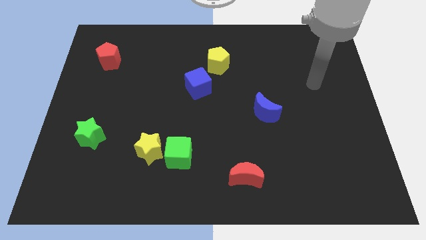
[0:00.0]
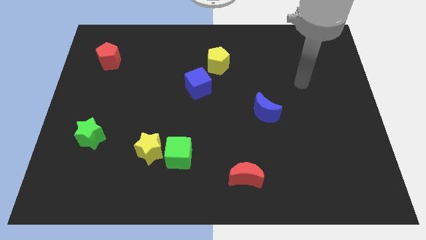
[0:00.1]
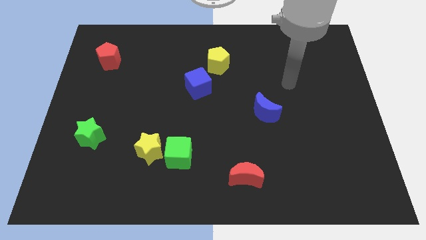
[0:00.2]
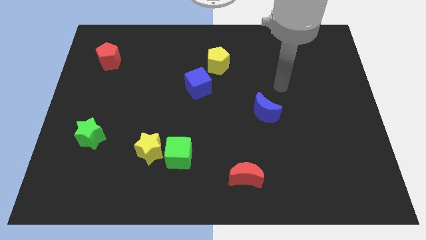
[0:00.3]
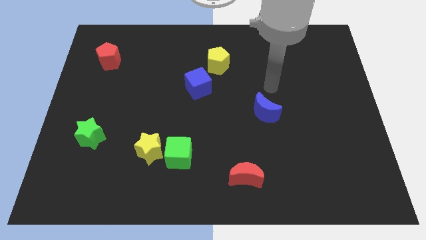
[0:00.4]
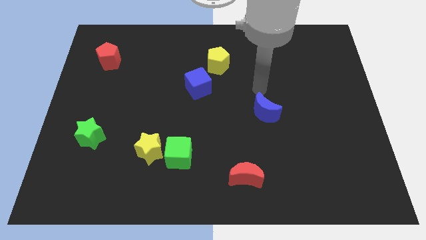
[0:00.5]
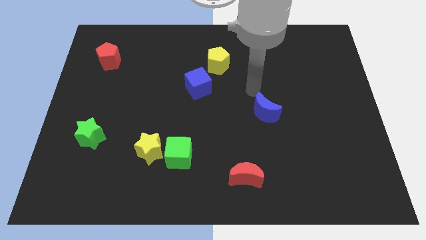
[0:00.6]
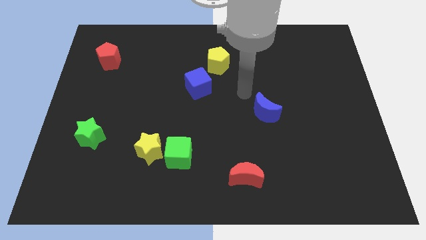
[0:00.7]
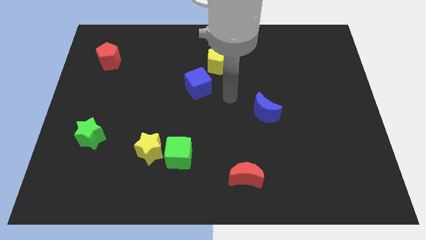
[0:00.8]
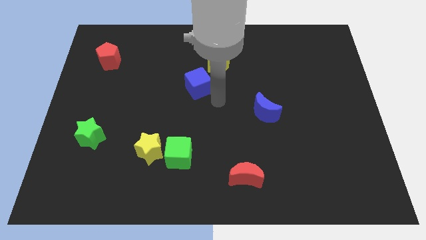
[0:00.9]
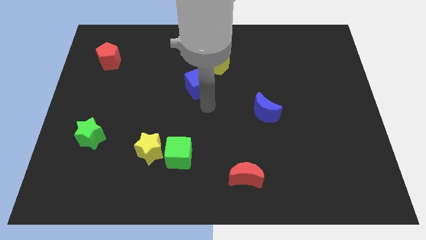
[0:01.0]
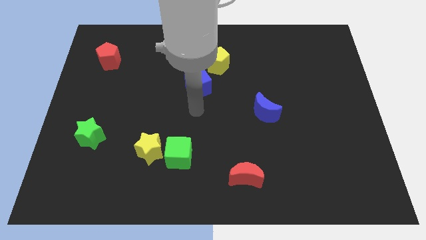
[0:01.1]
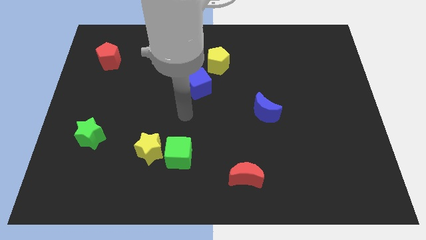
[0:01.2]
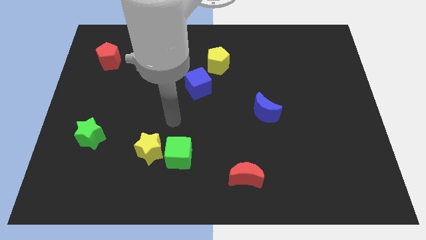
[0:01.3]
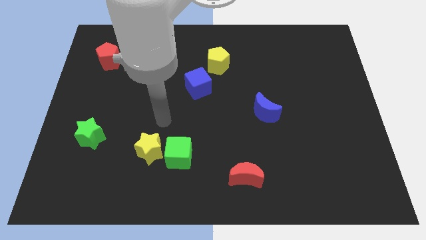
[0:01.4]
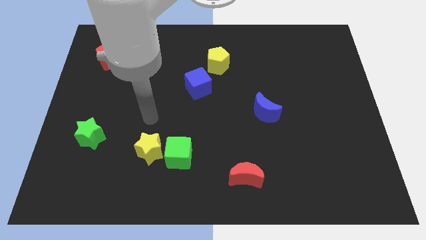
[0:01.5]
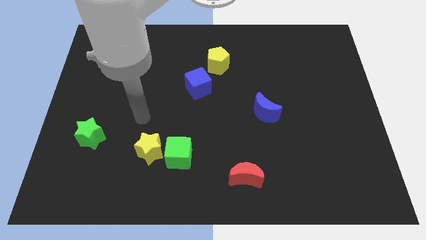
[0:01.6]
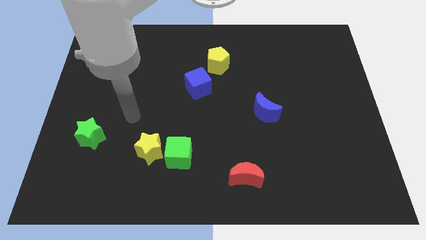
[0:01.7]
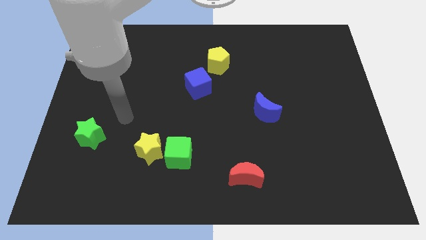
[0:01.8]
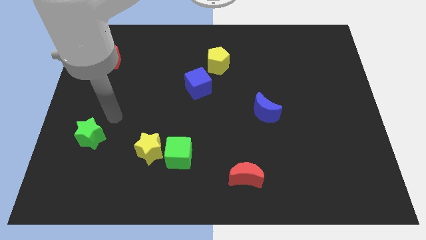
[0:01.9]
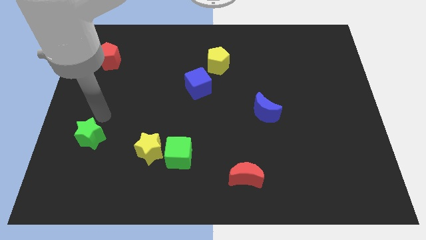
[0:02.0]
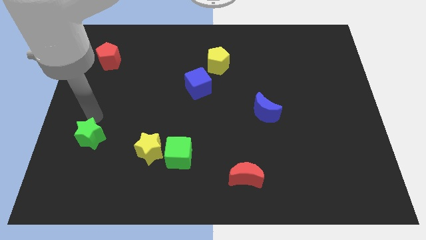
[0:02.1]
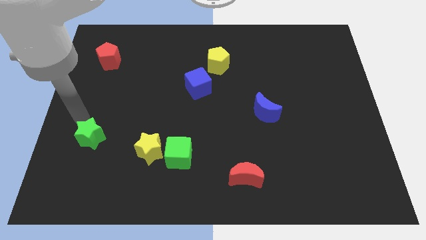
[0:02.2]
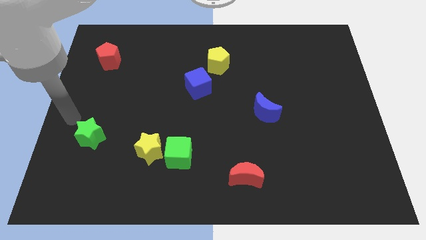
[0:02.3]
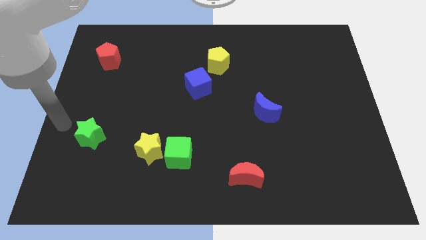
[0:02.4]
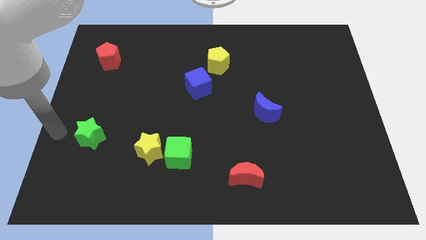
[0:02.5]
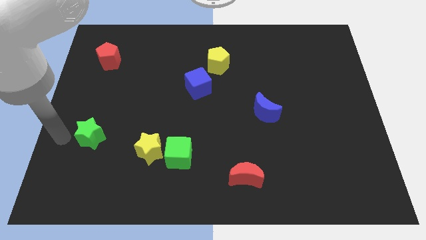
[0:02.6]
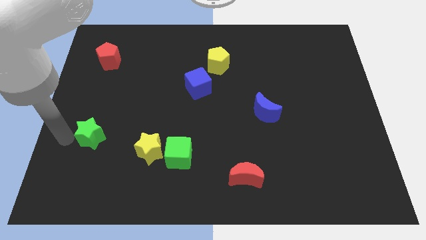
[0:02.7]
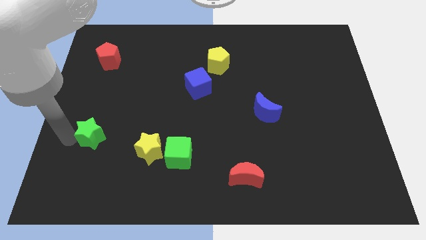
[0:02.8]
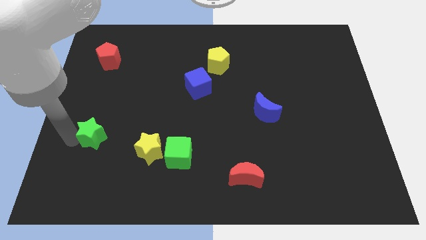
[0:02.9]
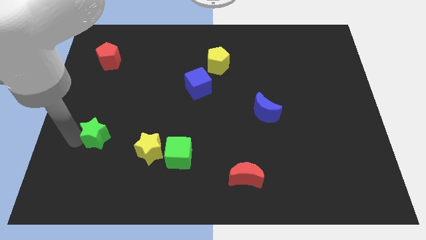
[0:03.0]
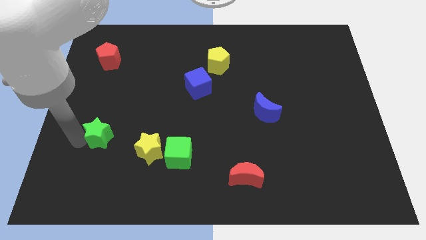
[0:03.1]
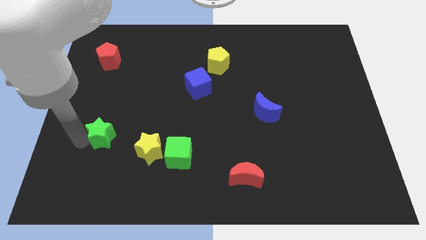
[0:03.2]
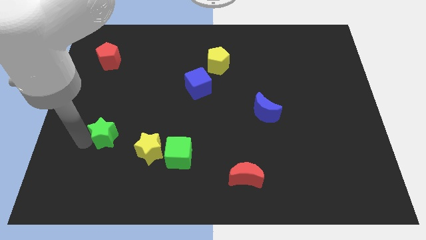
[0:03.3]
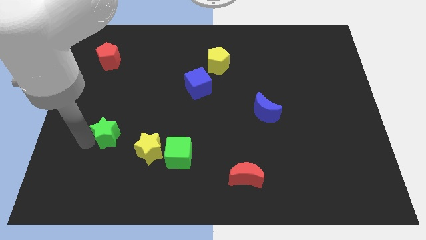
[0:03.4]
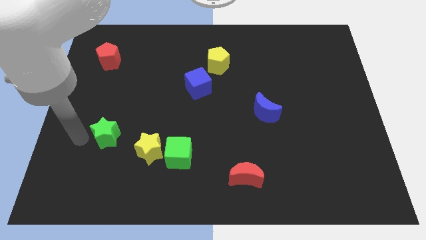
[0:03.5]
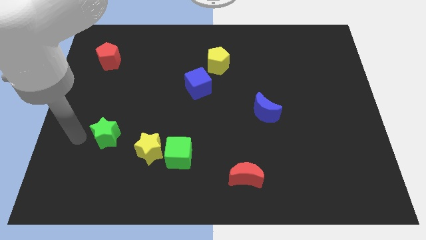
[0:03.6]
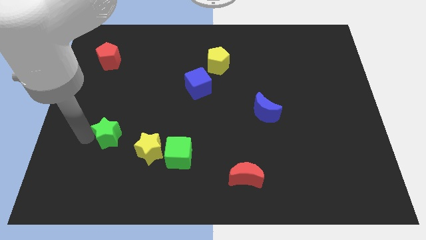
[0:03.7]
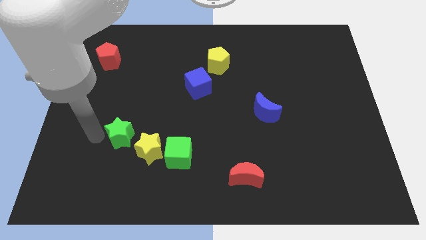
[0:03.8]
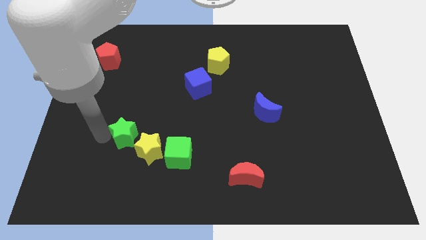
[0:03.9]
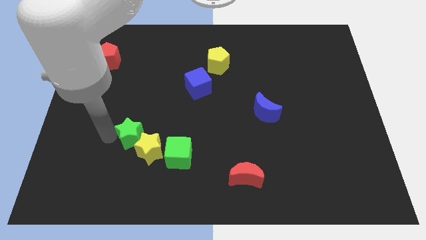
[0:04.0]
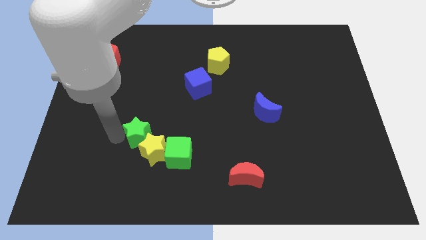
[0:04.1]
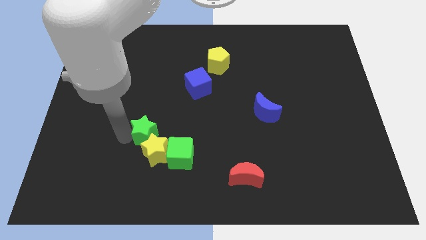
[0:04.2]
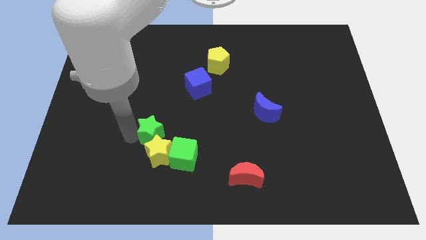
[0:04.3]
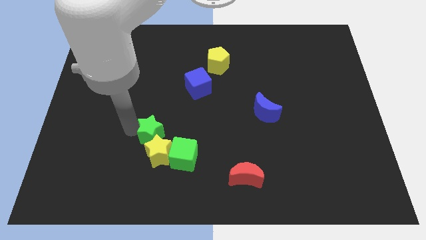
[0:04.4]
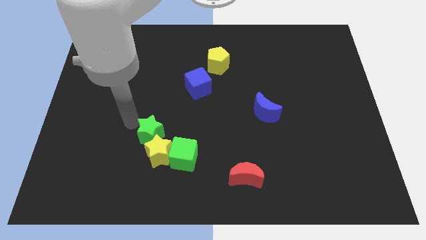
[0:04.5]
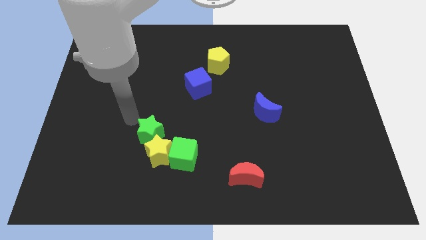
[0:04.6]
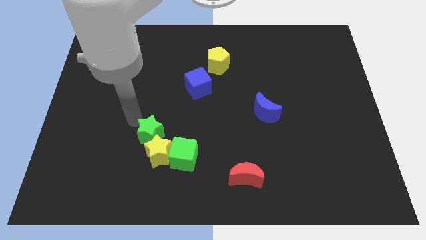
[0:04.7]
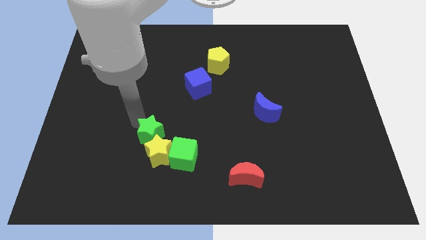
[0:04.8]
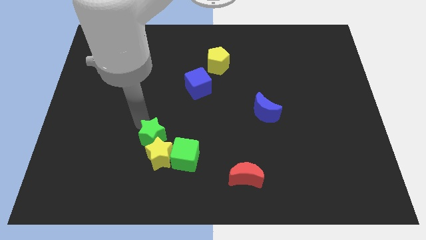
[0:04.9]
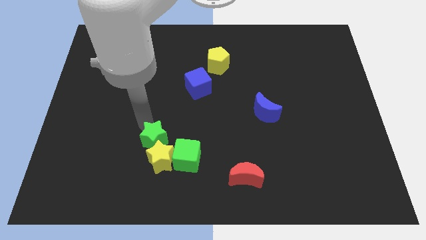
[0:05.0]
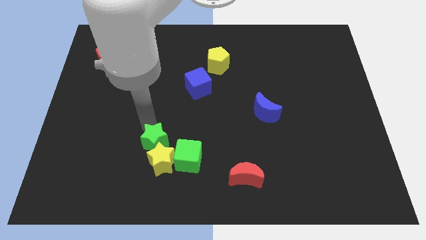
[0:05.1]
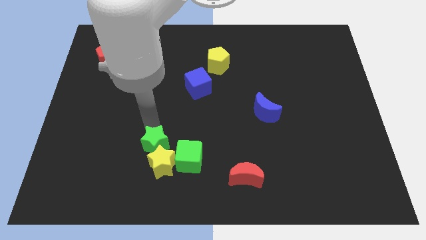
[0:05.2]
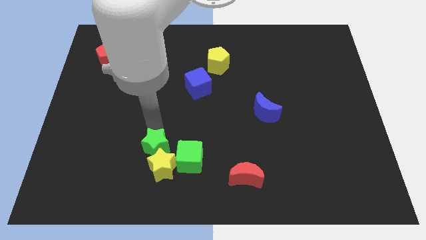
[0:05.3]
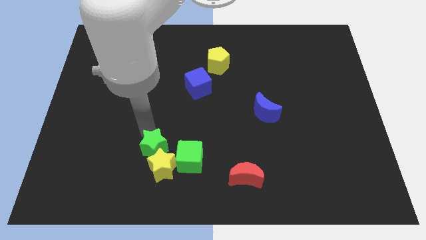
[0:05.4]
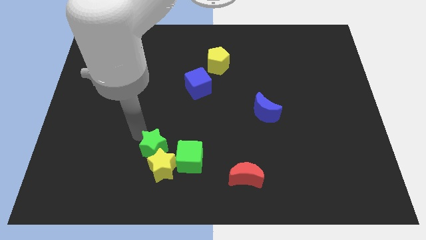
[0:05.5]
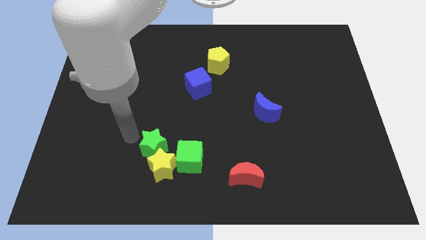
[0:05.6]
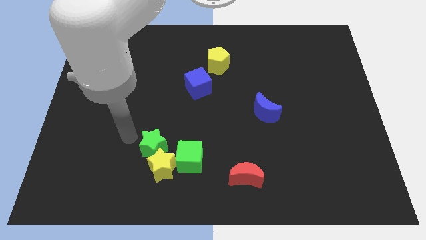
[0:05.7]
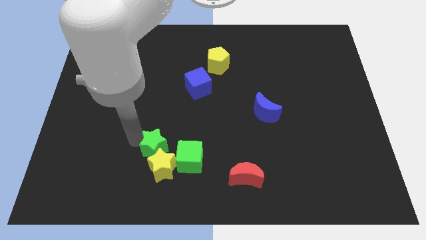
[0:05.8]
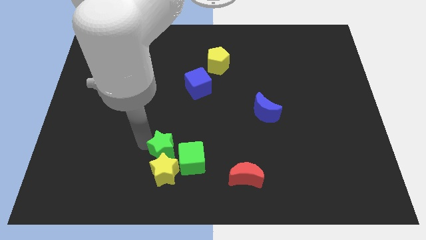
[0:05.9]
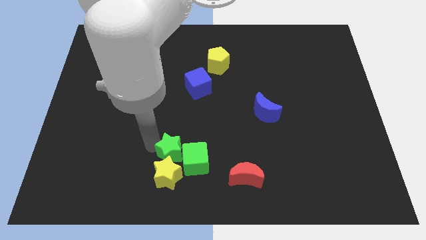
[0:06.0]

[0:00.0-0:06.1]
slide the green star to the green cube
